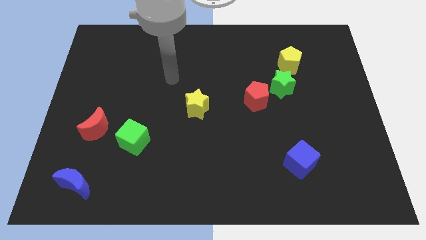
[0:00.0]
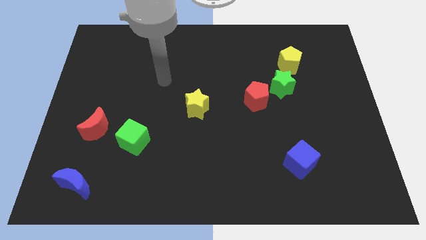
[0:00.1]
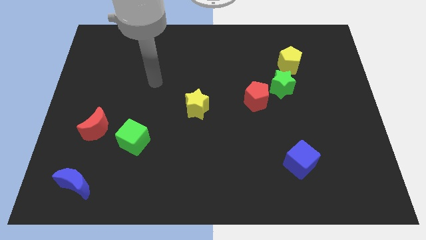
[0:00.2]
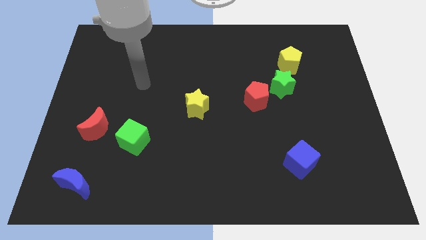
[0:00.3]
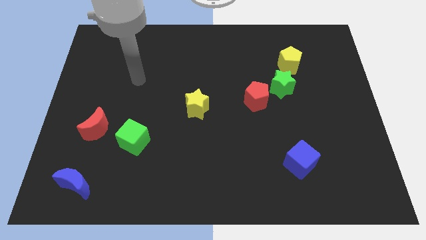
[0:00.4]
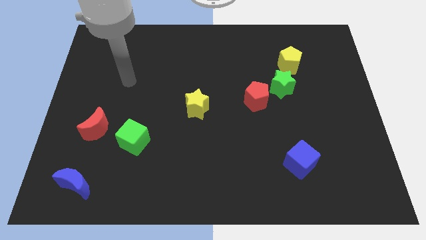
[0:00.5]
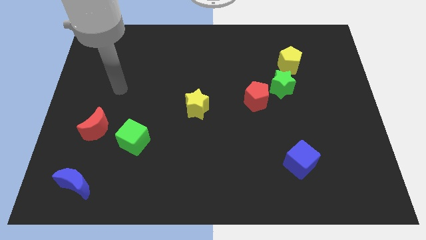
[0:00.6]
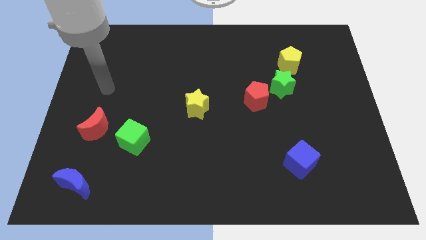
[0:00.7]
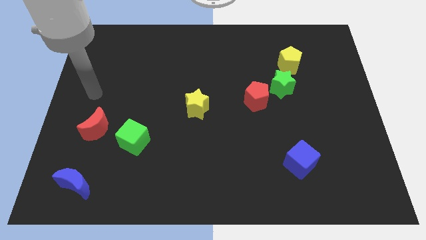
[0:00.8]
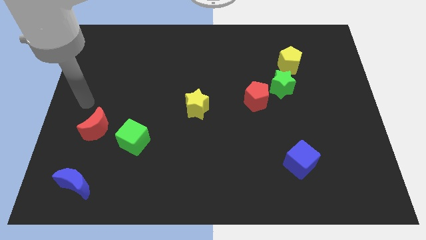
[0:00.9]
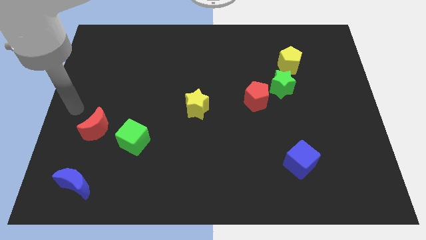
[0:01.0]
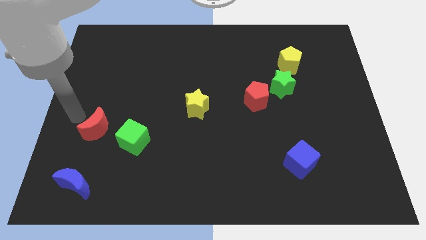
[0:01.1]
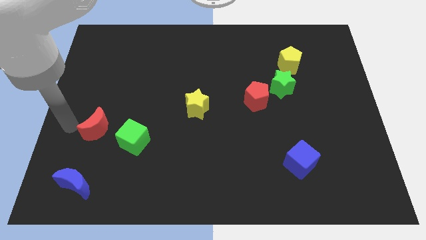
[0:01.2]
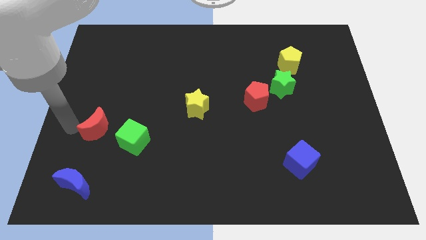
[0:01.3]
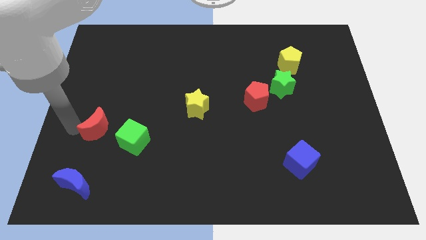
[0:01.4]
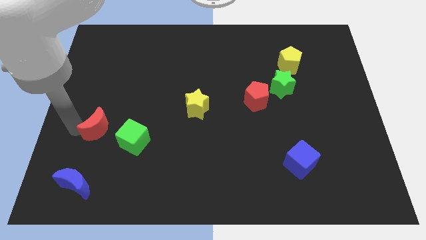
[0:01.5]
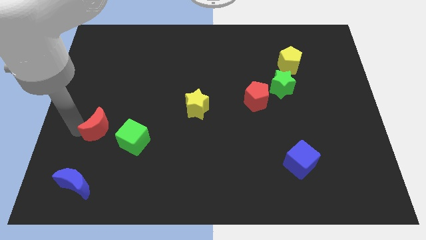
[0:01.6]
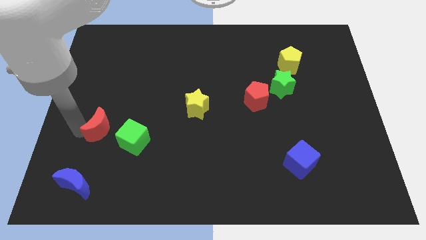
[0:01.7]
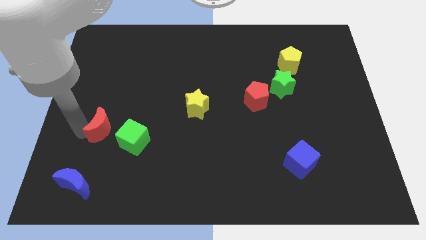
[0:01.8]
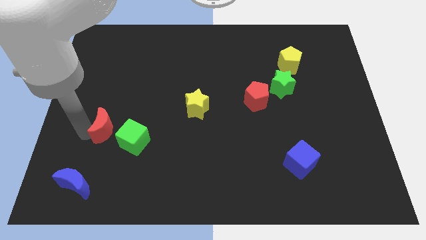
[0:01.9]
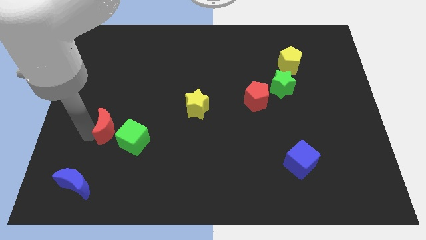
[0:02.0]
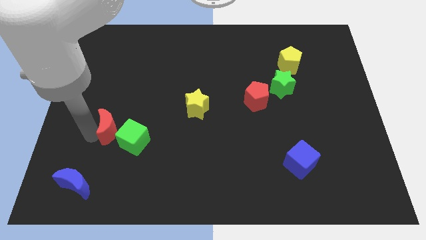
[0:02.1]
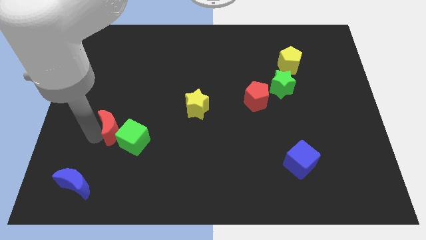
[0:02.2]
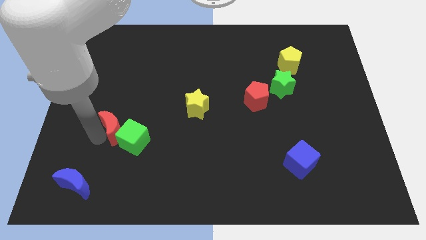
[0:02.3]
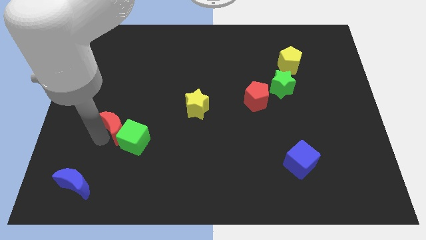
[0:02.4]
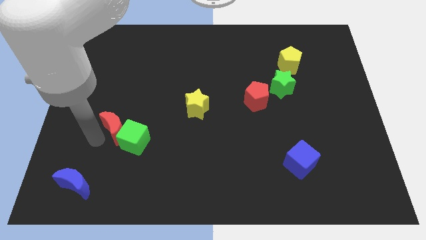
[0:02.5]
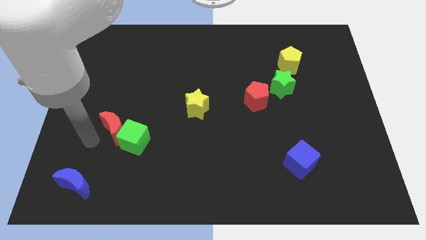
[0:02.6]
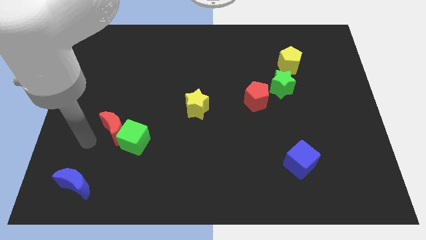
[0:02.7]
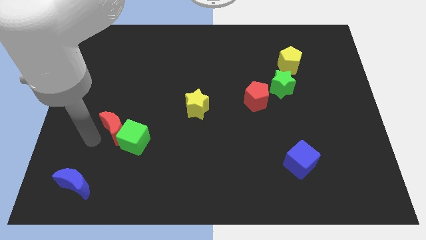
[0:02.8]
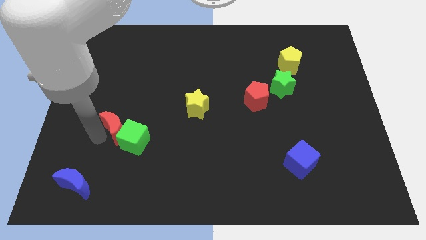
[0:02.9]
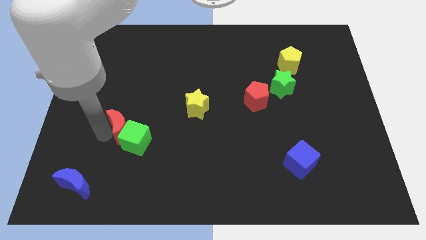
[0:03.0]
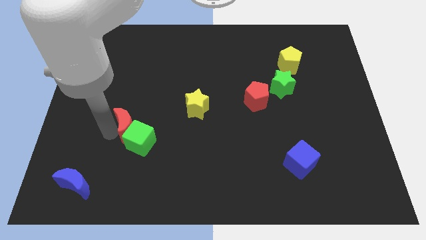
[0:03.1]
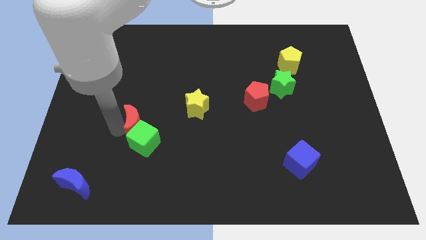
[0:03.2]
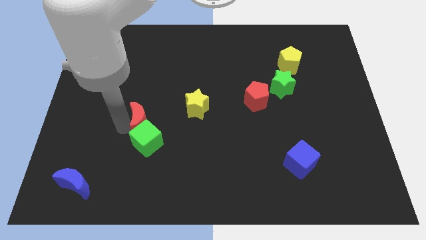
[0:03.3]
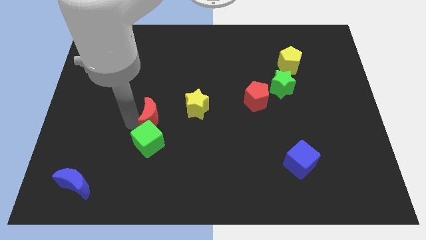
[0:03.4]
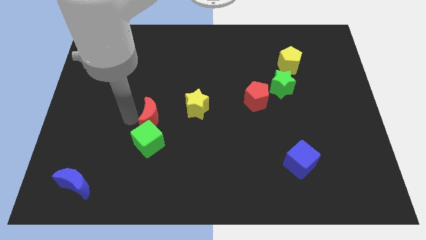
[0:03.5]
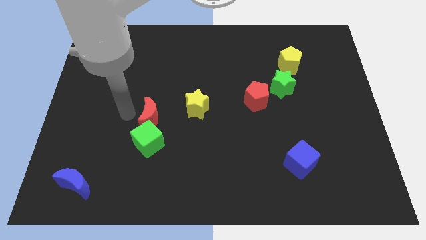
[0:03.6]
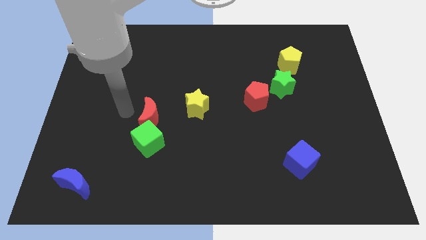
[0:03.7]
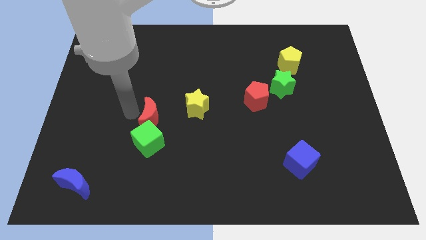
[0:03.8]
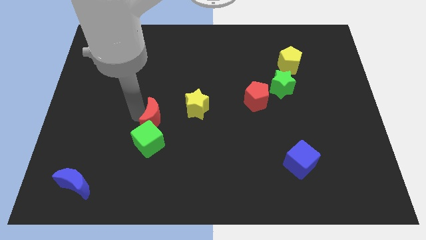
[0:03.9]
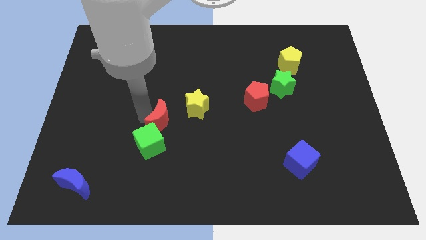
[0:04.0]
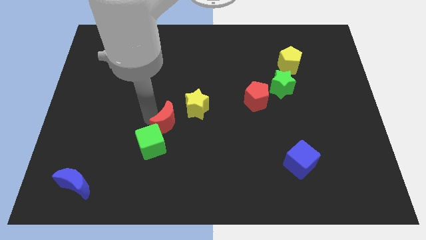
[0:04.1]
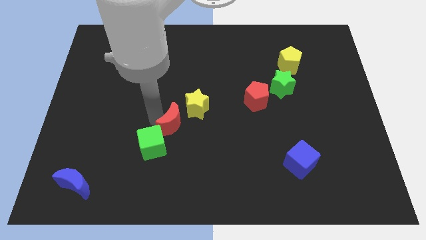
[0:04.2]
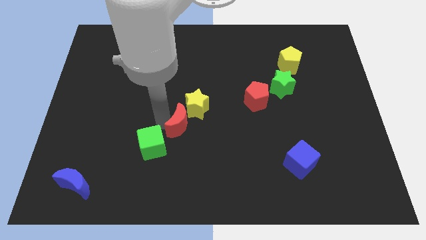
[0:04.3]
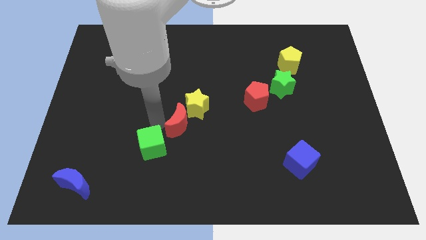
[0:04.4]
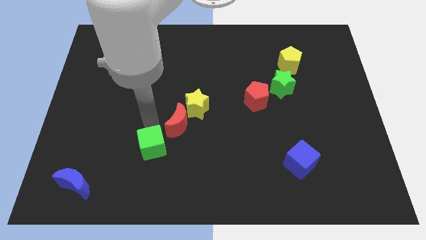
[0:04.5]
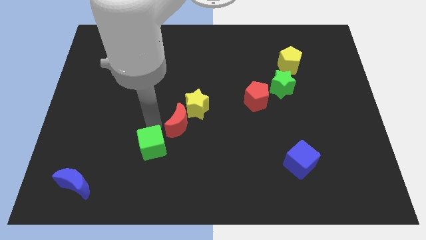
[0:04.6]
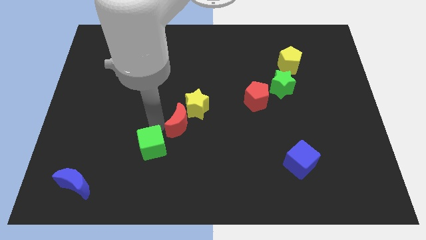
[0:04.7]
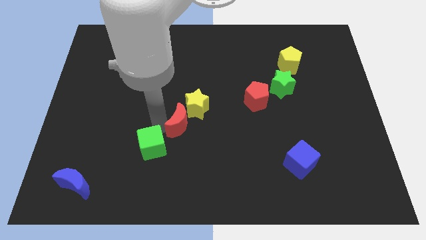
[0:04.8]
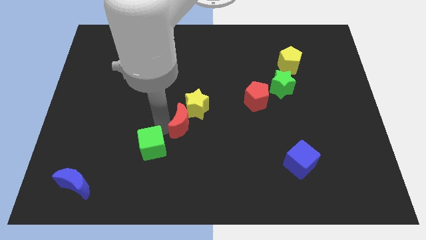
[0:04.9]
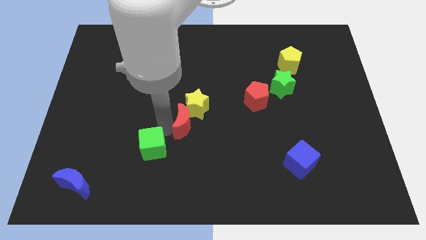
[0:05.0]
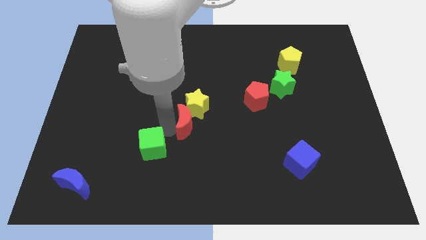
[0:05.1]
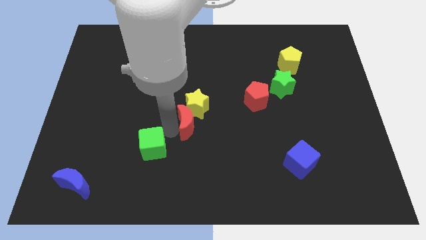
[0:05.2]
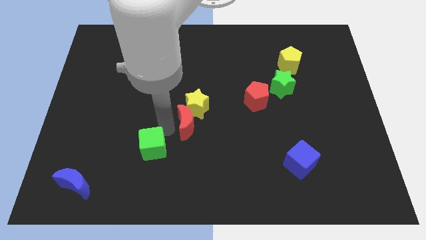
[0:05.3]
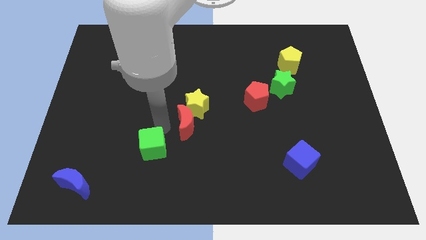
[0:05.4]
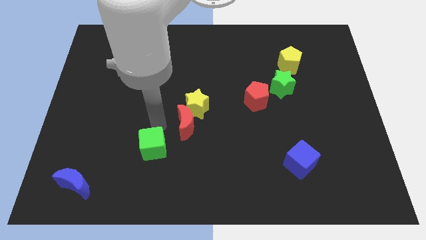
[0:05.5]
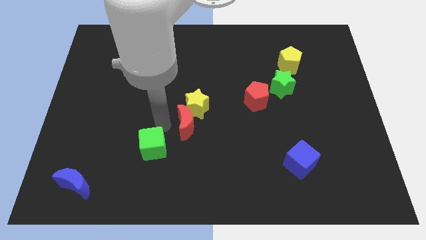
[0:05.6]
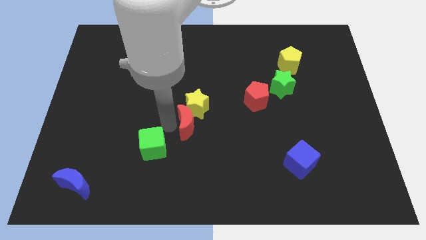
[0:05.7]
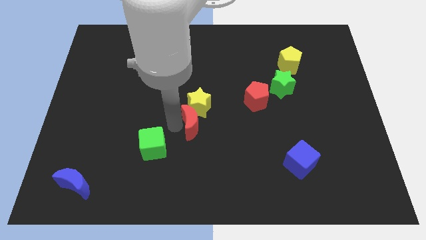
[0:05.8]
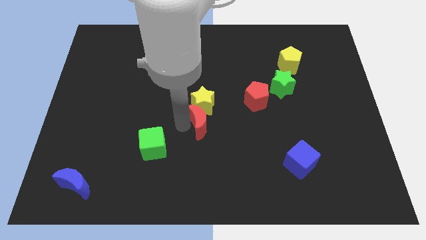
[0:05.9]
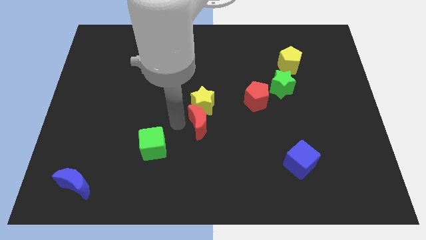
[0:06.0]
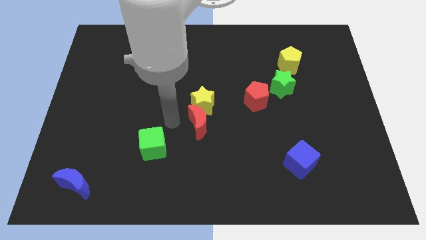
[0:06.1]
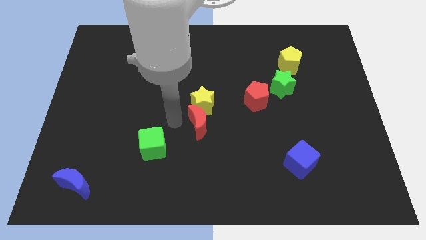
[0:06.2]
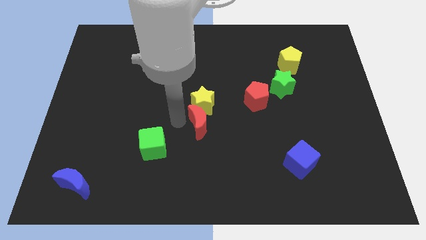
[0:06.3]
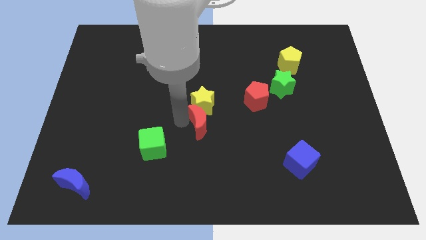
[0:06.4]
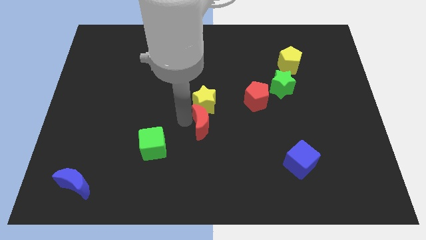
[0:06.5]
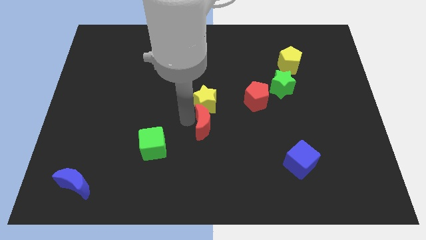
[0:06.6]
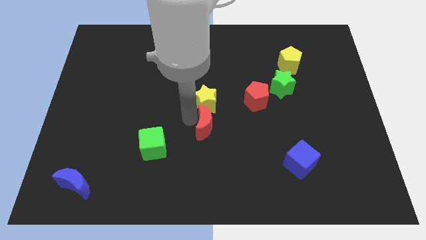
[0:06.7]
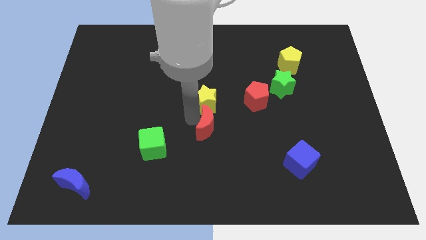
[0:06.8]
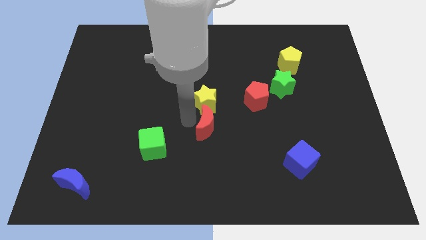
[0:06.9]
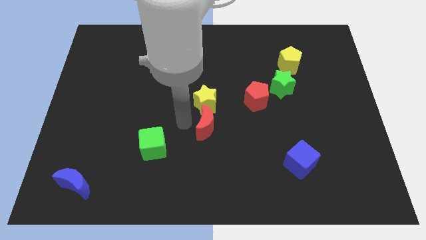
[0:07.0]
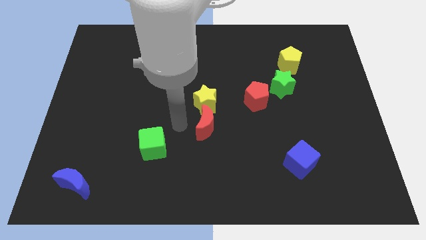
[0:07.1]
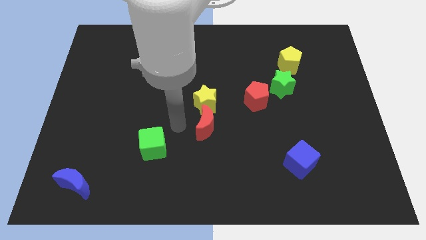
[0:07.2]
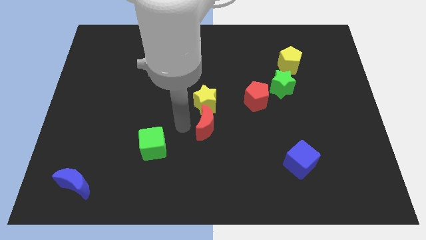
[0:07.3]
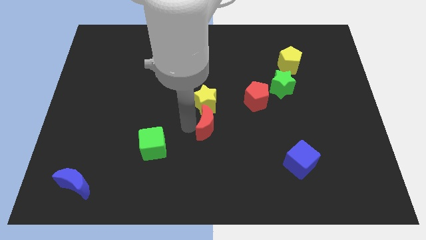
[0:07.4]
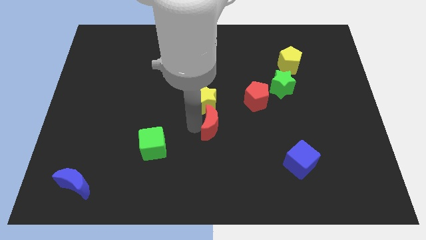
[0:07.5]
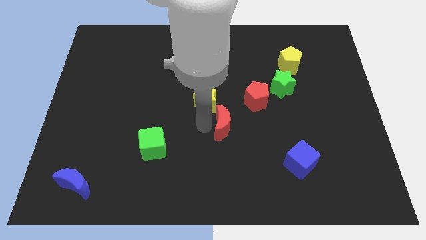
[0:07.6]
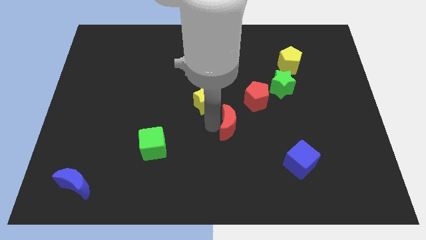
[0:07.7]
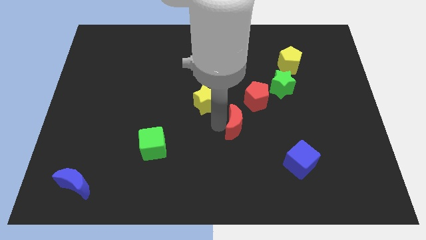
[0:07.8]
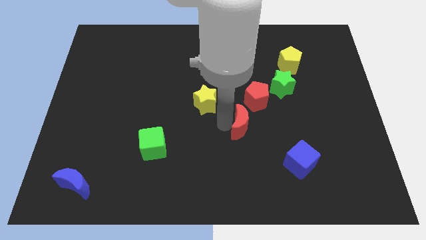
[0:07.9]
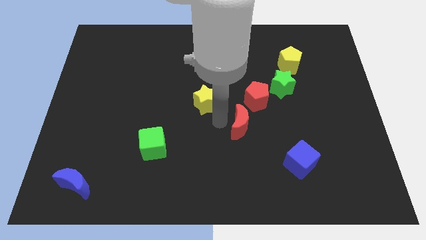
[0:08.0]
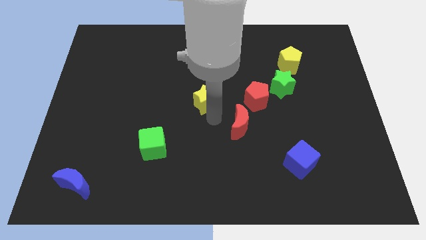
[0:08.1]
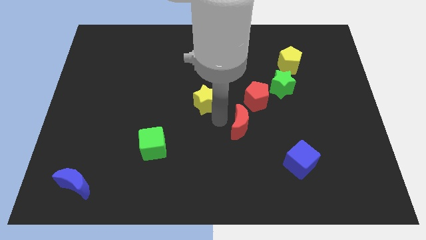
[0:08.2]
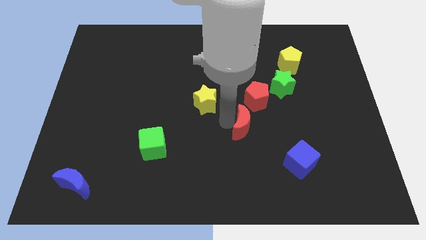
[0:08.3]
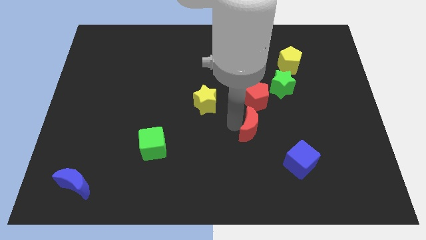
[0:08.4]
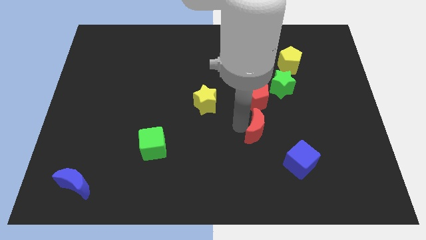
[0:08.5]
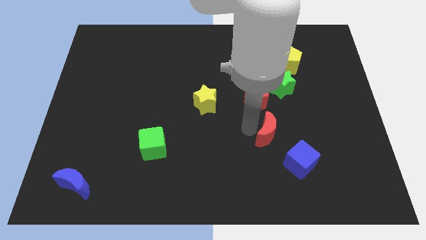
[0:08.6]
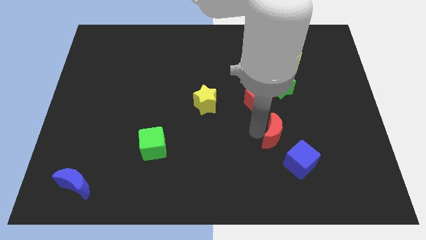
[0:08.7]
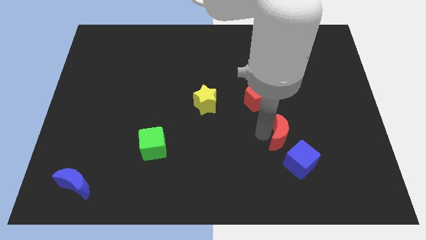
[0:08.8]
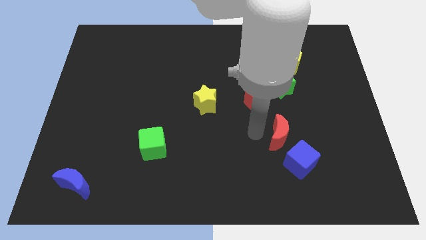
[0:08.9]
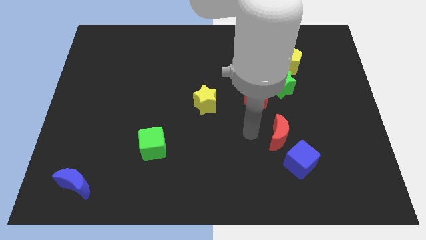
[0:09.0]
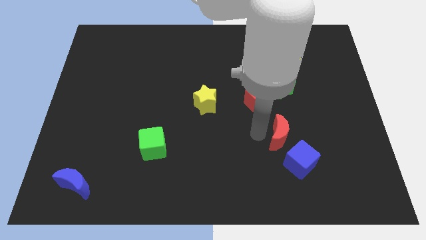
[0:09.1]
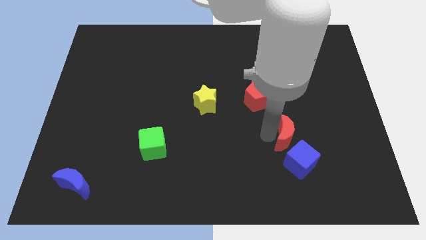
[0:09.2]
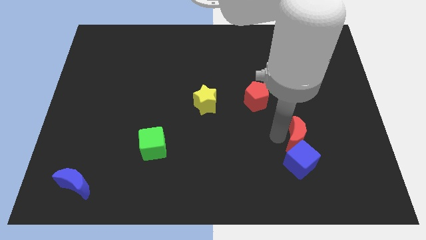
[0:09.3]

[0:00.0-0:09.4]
push the red moon diagonally up and to the right of the blue cube
